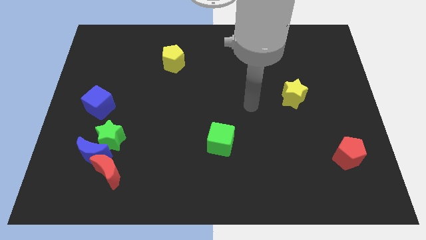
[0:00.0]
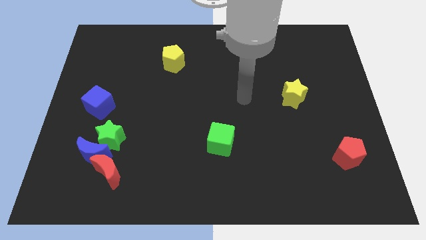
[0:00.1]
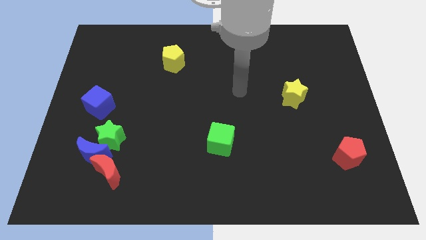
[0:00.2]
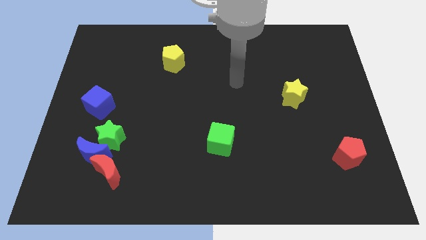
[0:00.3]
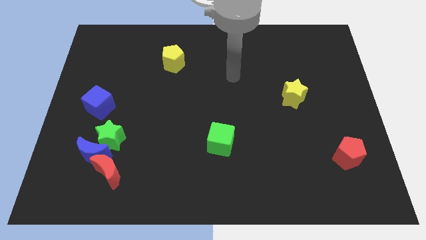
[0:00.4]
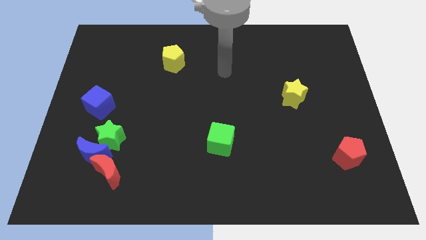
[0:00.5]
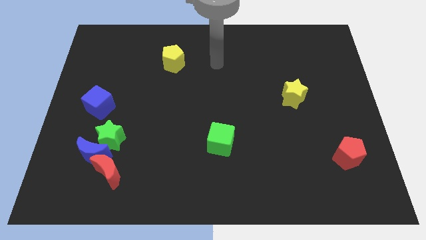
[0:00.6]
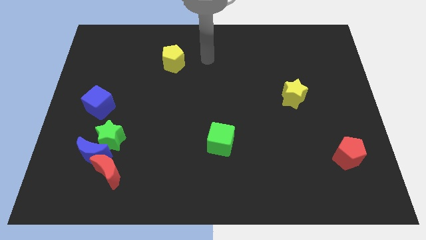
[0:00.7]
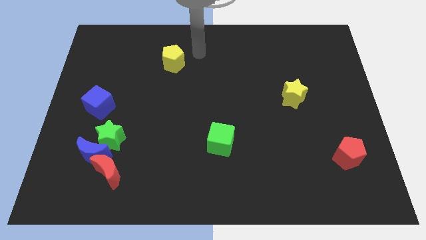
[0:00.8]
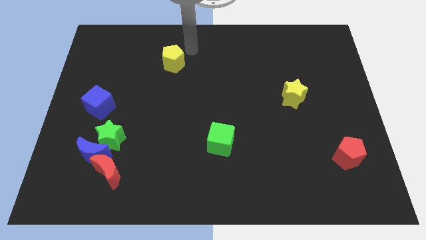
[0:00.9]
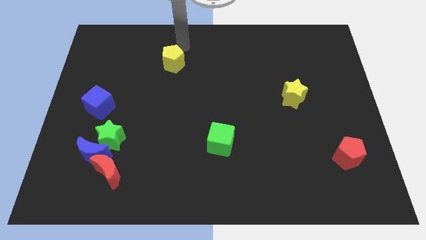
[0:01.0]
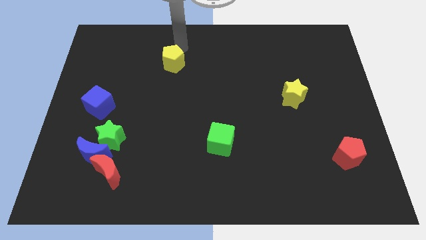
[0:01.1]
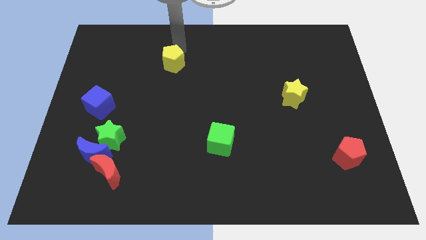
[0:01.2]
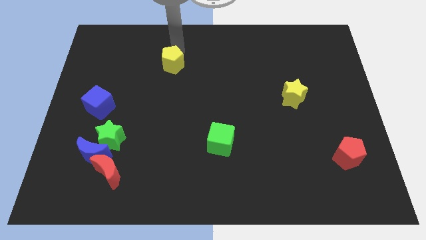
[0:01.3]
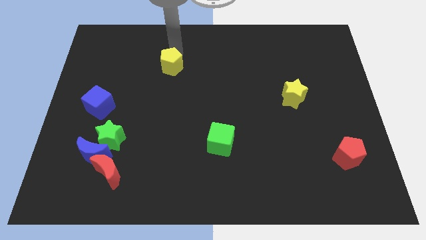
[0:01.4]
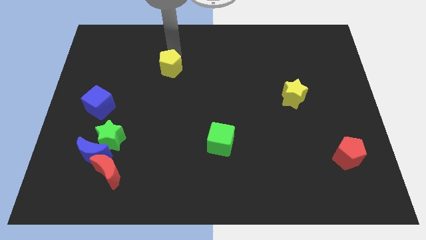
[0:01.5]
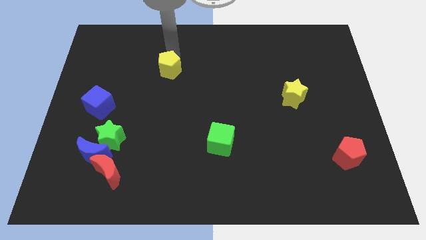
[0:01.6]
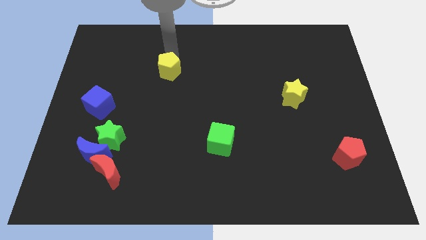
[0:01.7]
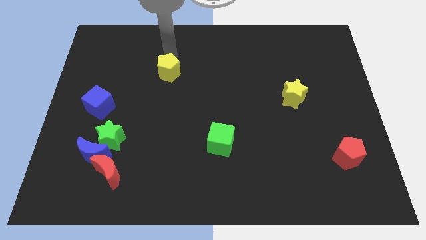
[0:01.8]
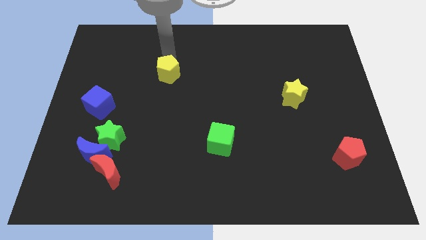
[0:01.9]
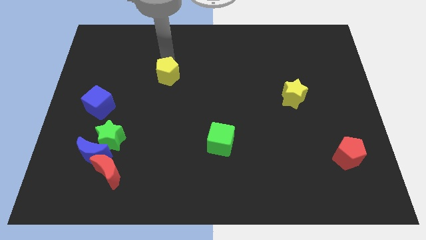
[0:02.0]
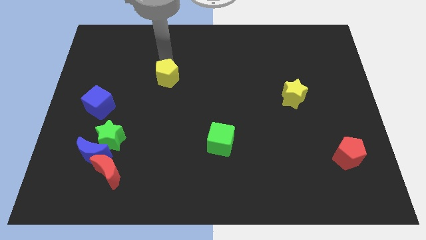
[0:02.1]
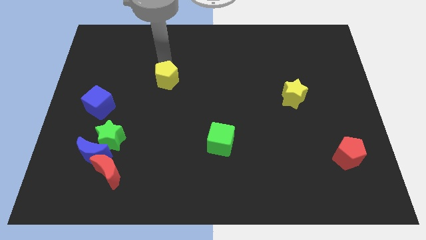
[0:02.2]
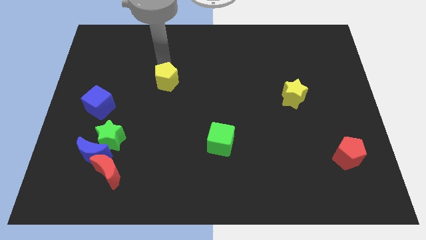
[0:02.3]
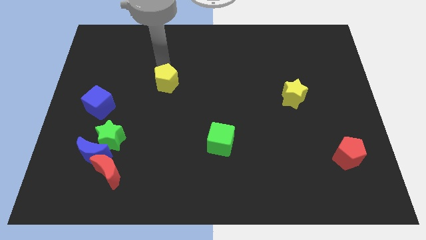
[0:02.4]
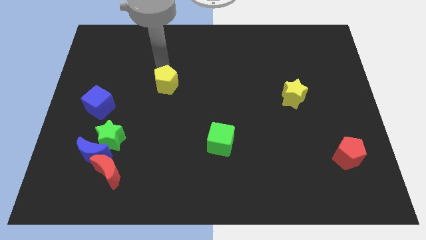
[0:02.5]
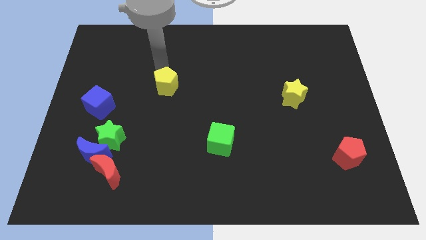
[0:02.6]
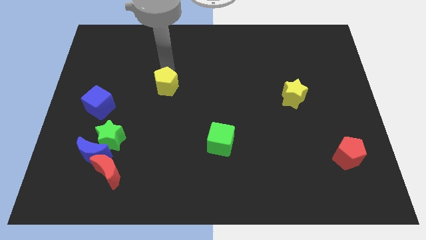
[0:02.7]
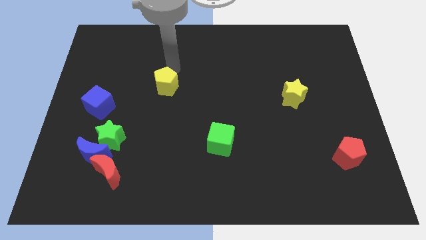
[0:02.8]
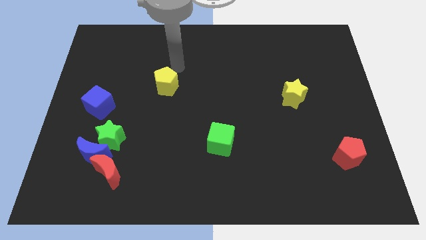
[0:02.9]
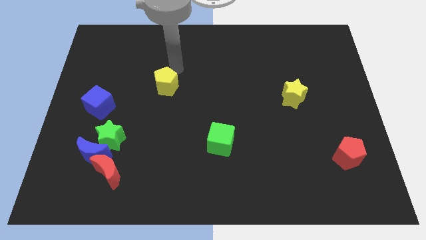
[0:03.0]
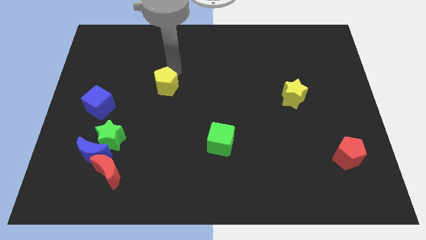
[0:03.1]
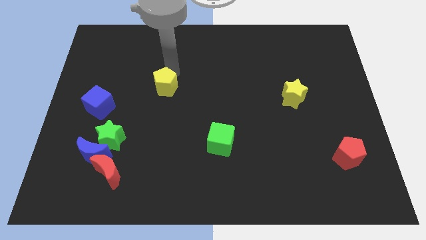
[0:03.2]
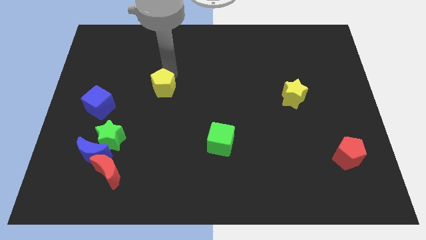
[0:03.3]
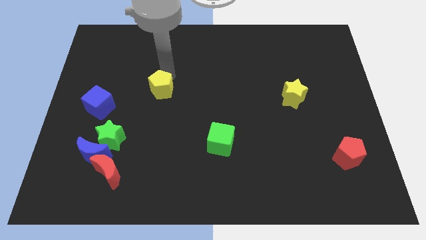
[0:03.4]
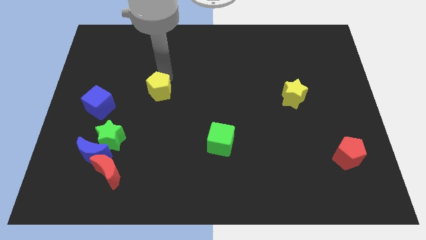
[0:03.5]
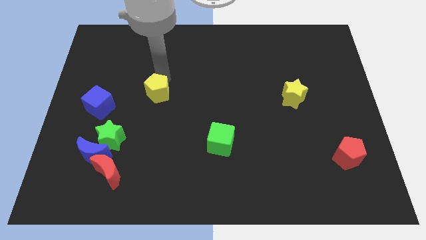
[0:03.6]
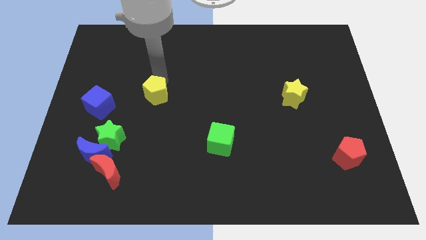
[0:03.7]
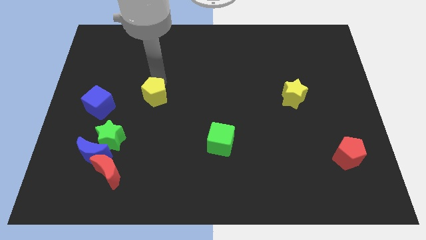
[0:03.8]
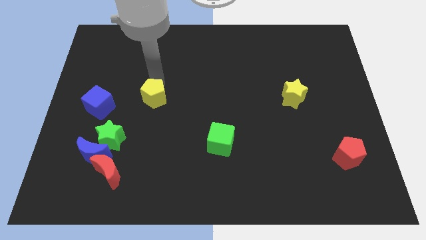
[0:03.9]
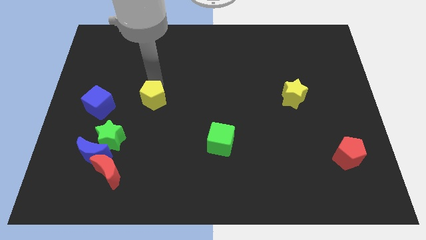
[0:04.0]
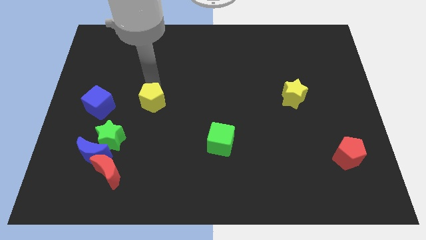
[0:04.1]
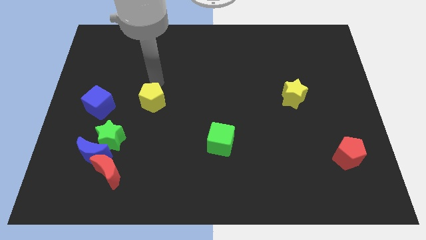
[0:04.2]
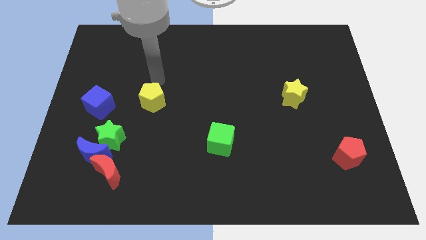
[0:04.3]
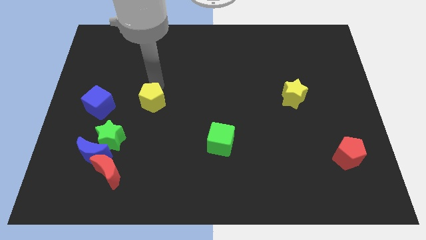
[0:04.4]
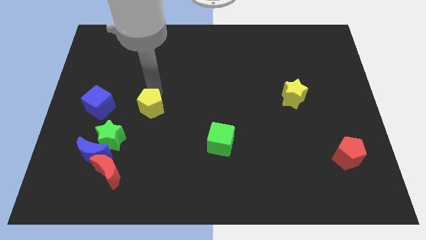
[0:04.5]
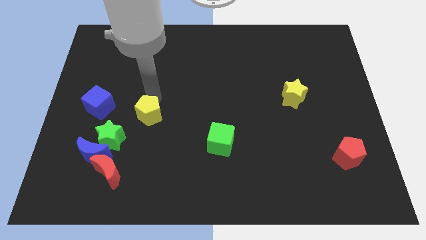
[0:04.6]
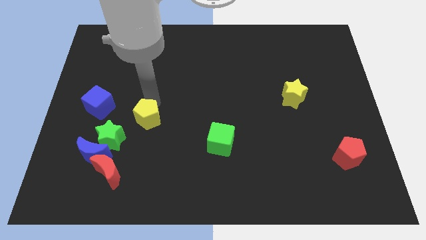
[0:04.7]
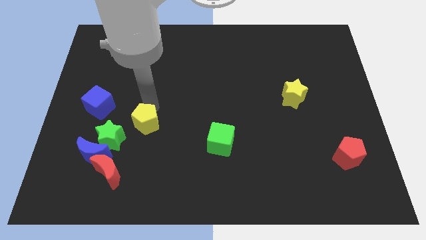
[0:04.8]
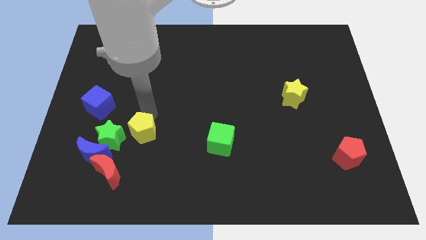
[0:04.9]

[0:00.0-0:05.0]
push the yellow pentagon to the top right side of the red moon

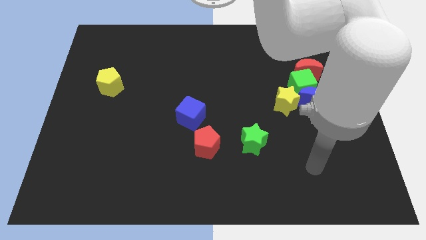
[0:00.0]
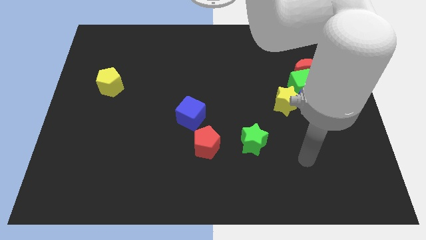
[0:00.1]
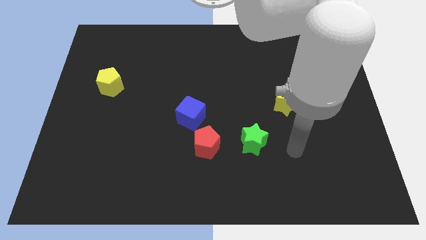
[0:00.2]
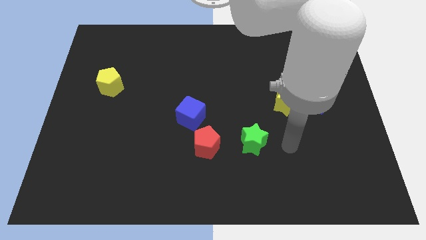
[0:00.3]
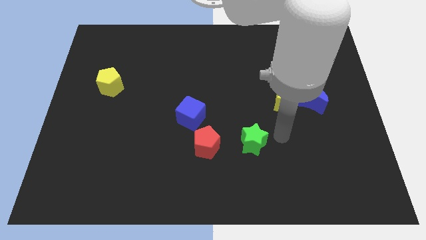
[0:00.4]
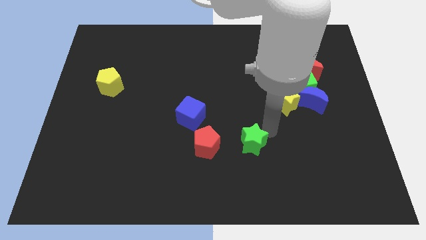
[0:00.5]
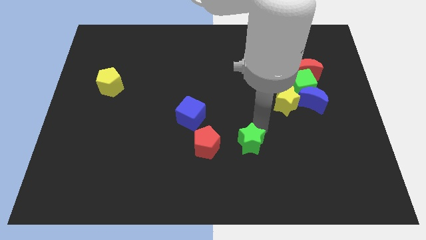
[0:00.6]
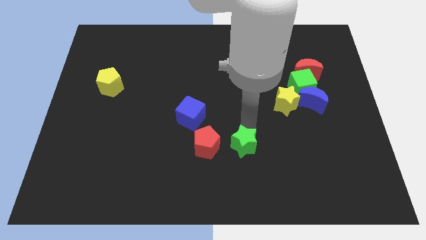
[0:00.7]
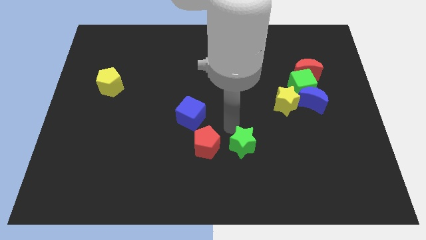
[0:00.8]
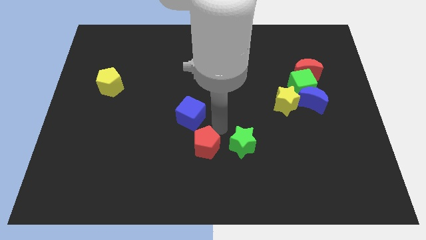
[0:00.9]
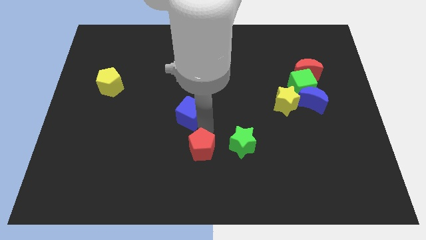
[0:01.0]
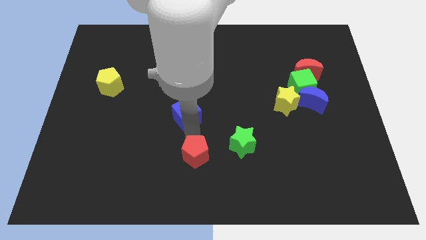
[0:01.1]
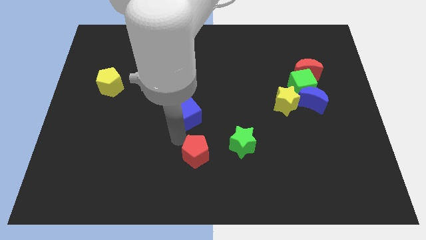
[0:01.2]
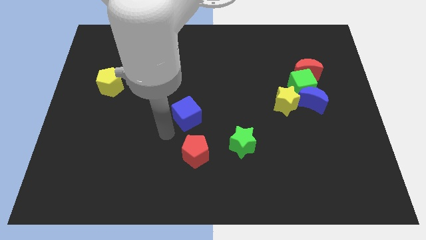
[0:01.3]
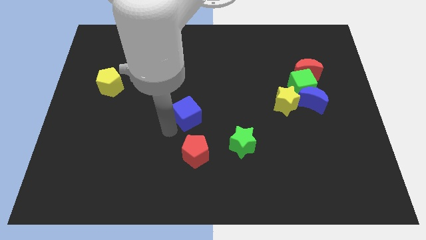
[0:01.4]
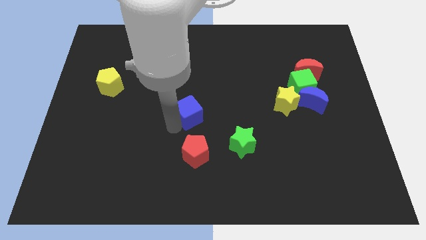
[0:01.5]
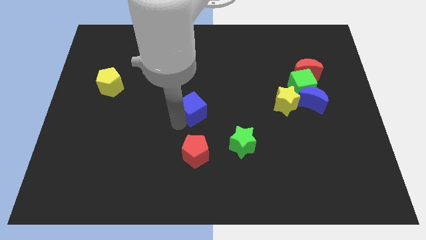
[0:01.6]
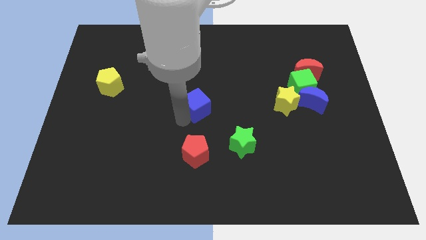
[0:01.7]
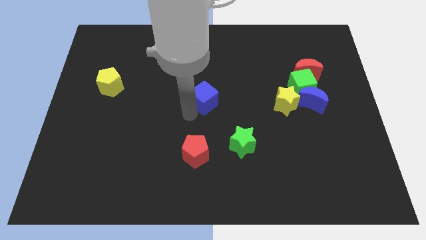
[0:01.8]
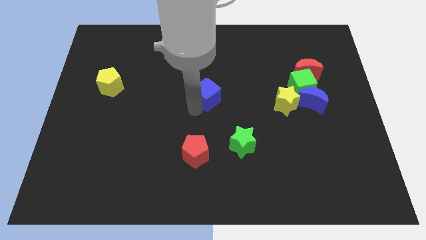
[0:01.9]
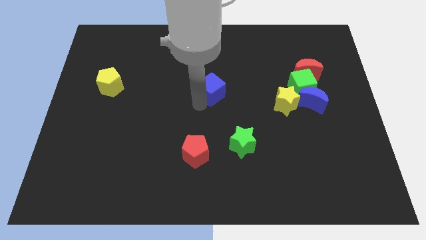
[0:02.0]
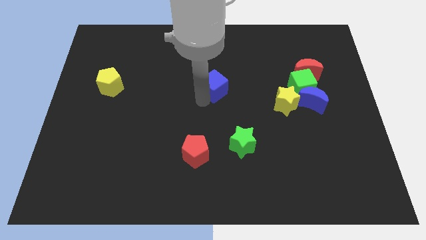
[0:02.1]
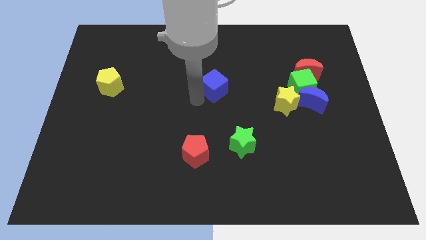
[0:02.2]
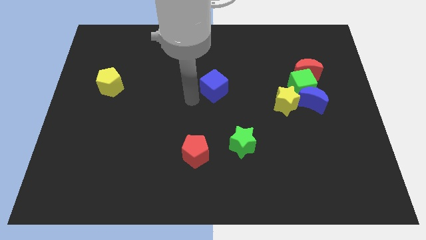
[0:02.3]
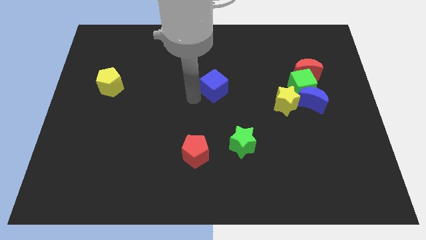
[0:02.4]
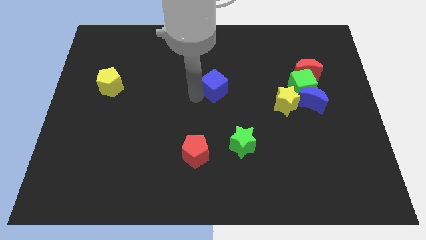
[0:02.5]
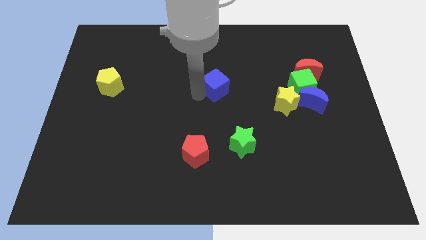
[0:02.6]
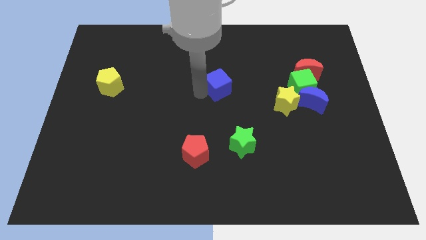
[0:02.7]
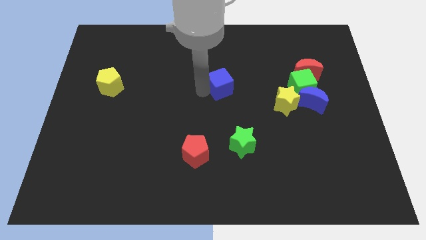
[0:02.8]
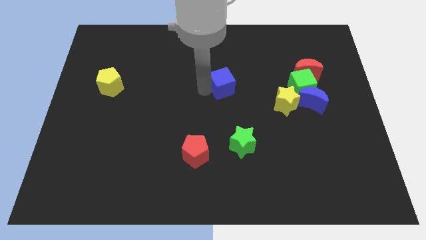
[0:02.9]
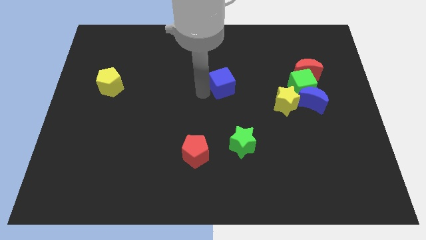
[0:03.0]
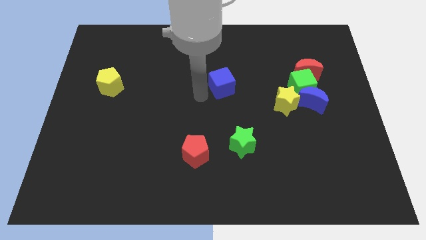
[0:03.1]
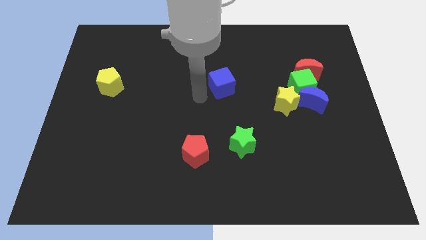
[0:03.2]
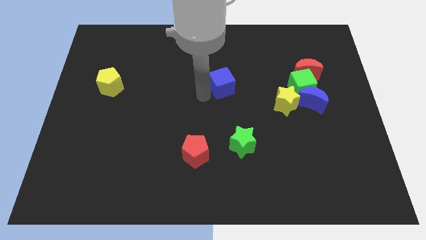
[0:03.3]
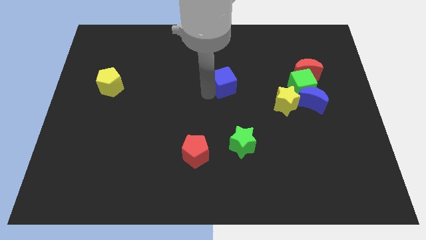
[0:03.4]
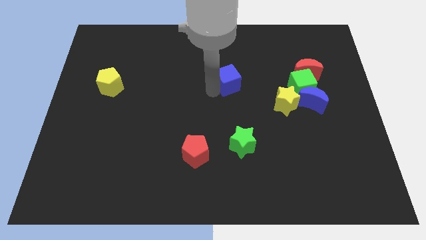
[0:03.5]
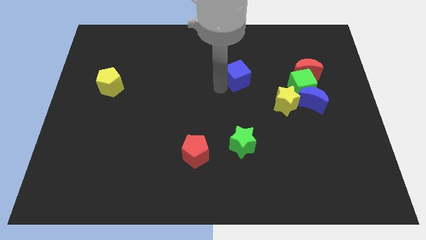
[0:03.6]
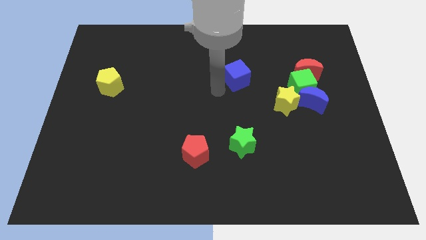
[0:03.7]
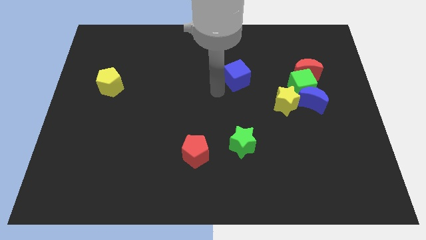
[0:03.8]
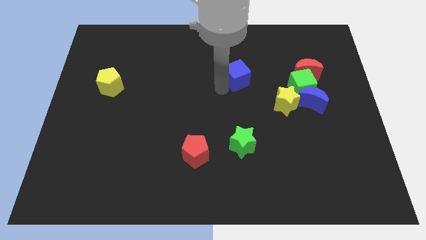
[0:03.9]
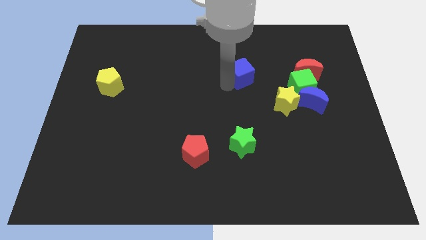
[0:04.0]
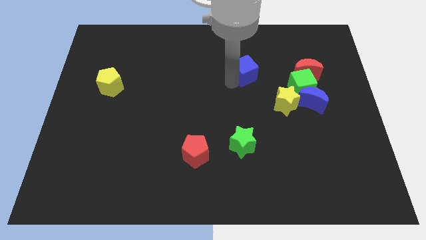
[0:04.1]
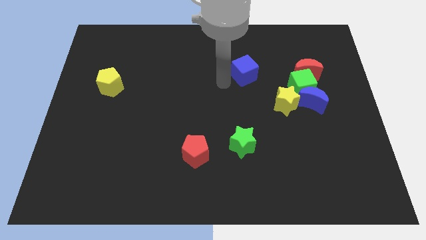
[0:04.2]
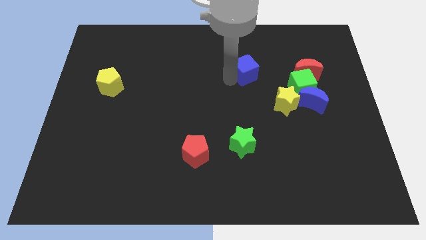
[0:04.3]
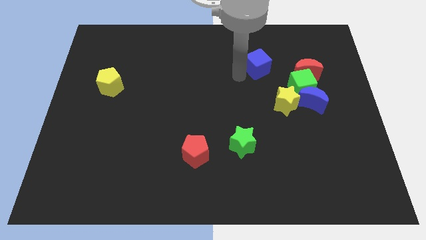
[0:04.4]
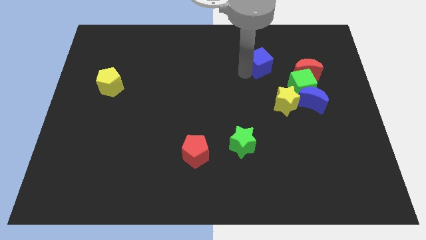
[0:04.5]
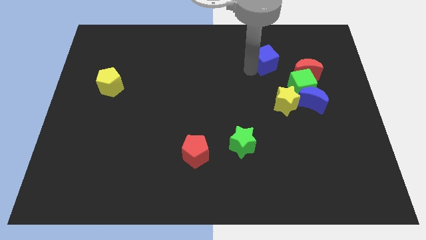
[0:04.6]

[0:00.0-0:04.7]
push the blue cube diagonally up and to the left of the red moon
